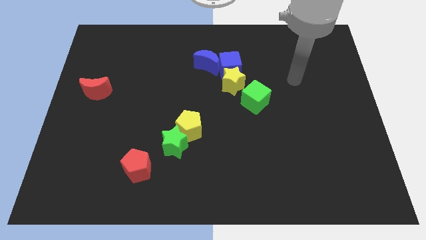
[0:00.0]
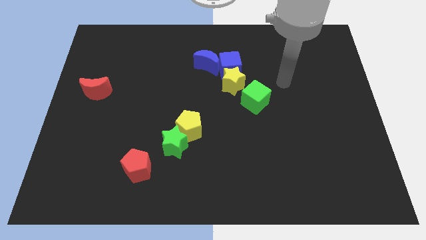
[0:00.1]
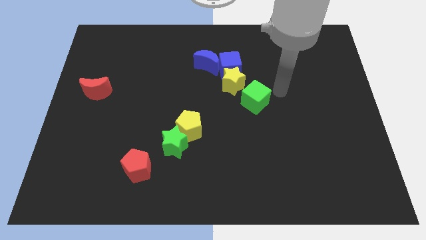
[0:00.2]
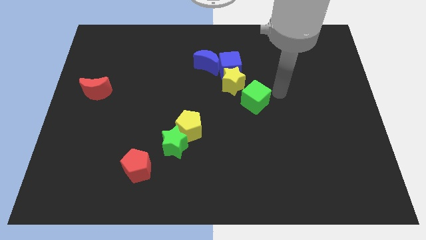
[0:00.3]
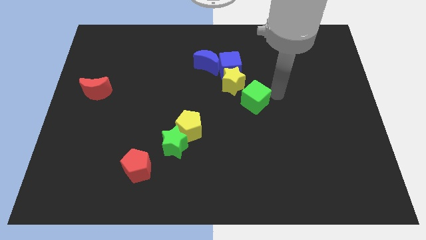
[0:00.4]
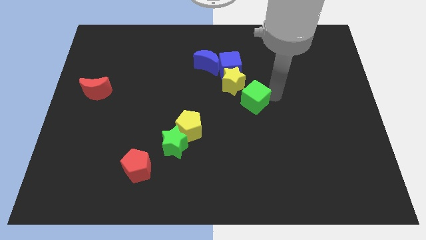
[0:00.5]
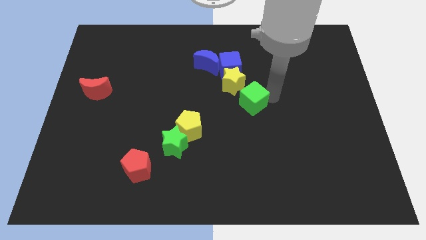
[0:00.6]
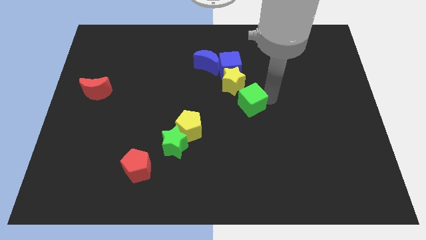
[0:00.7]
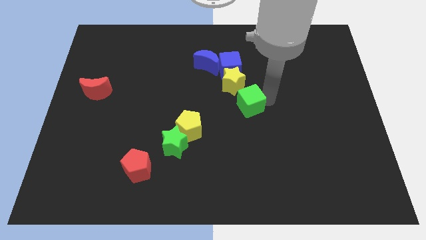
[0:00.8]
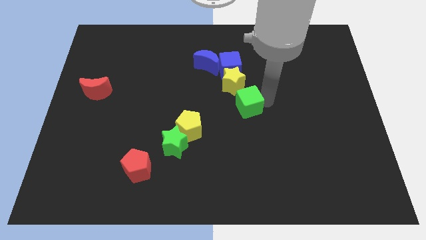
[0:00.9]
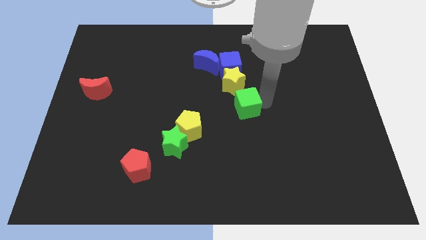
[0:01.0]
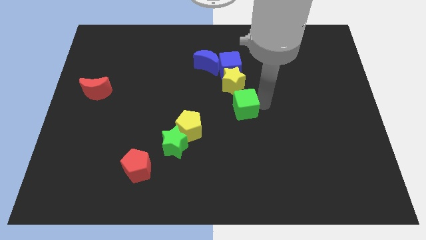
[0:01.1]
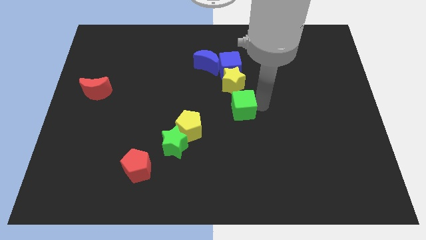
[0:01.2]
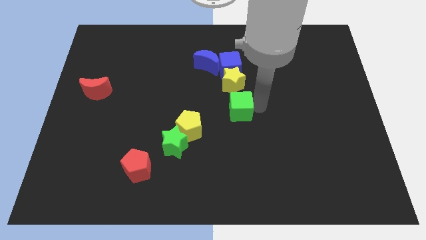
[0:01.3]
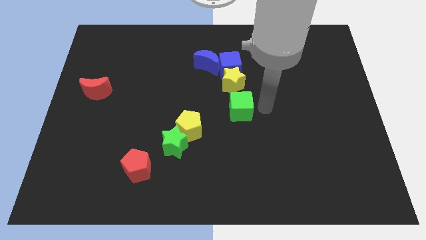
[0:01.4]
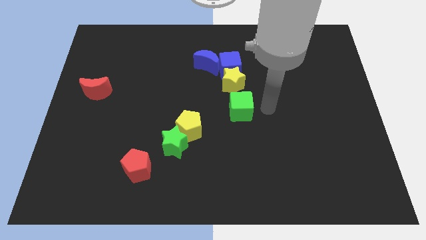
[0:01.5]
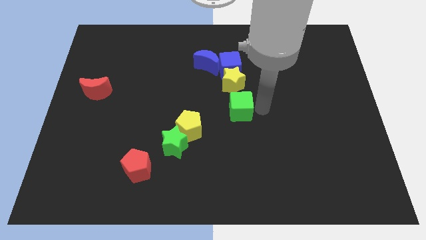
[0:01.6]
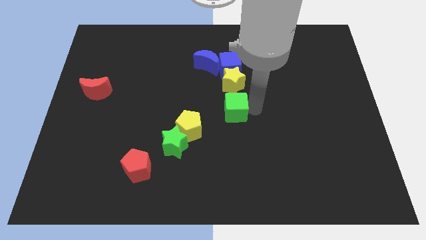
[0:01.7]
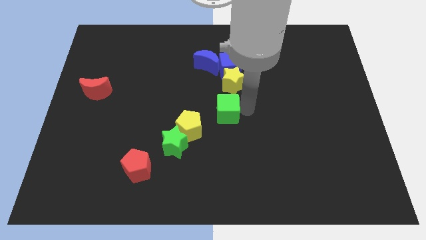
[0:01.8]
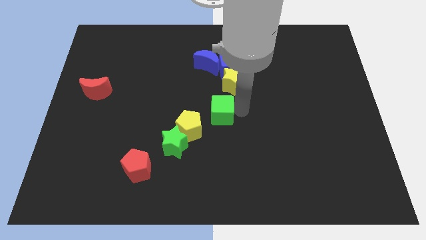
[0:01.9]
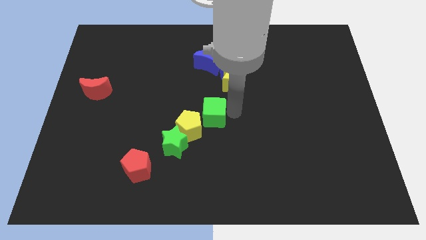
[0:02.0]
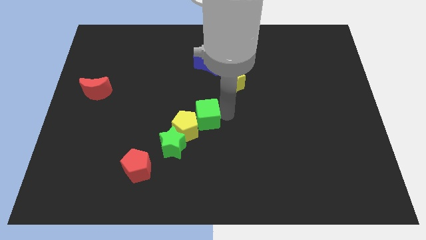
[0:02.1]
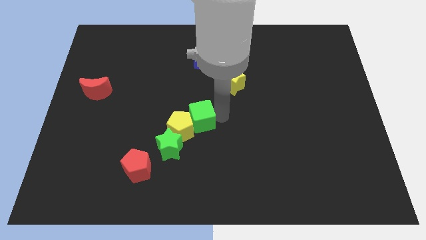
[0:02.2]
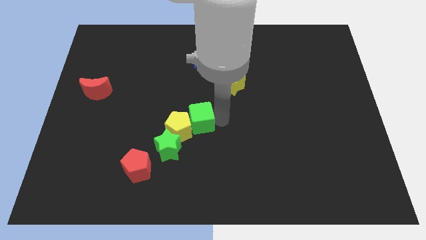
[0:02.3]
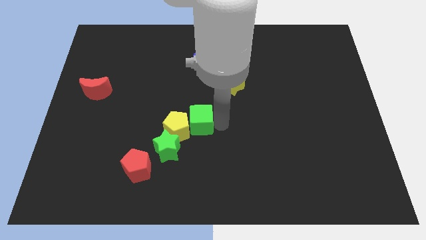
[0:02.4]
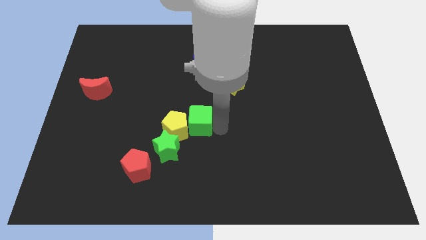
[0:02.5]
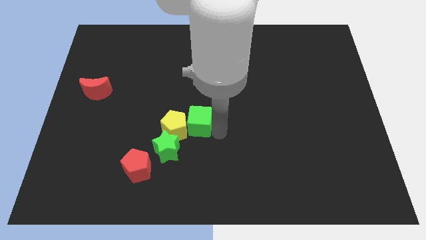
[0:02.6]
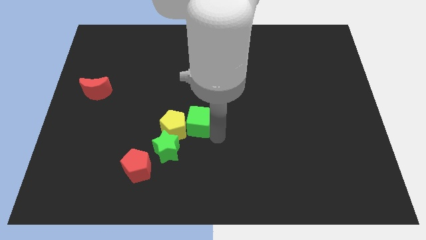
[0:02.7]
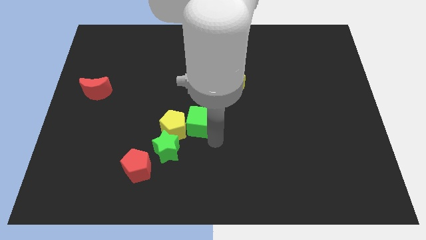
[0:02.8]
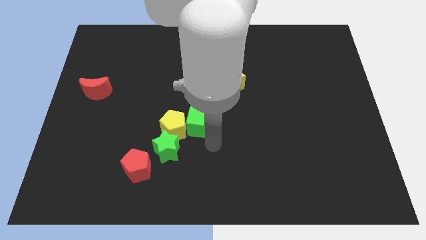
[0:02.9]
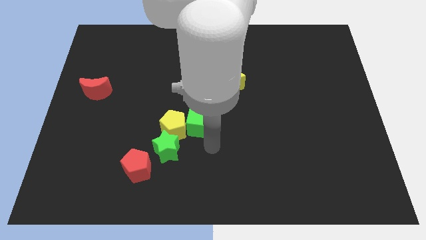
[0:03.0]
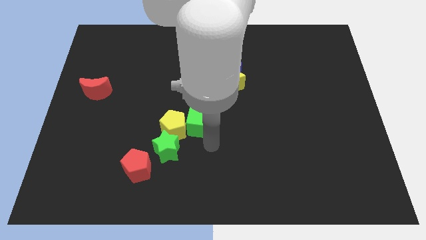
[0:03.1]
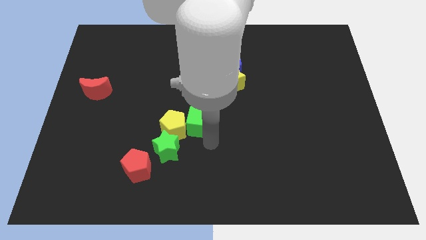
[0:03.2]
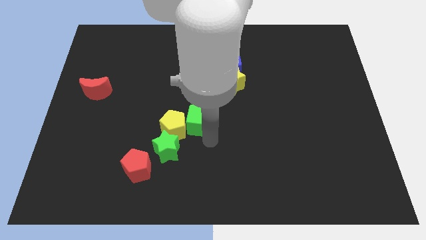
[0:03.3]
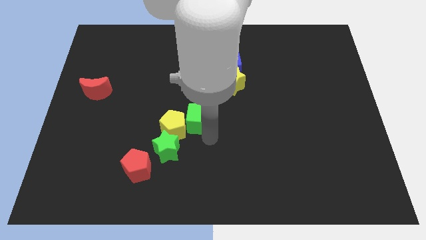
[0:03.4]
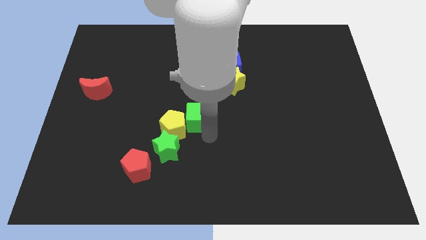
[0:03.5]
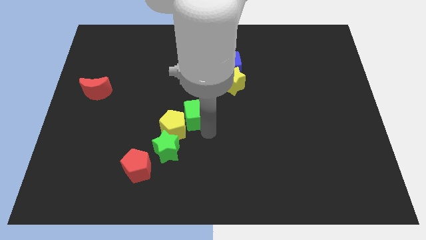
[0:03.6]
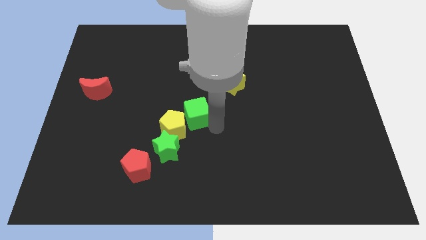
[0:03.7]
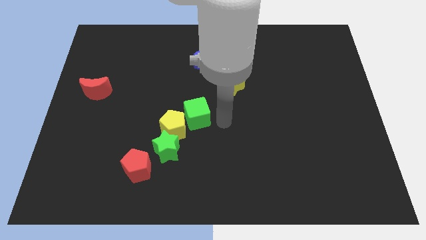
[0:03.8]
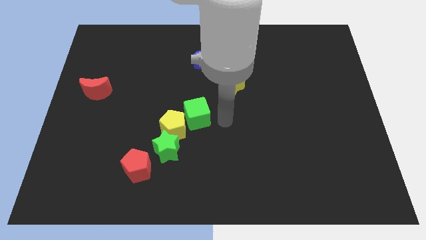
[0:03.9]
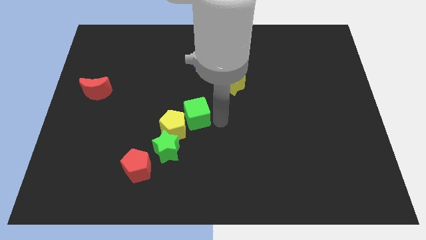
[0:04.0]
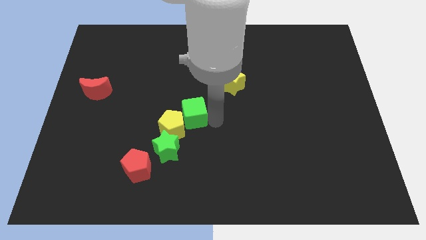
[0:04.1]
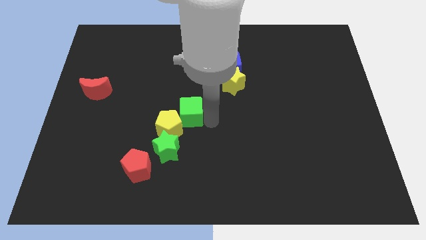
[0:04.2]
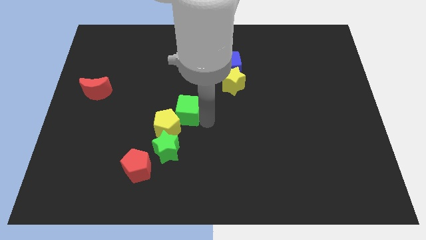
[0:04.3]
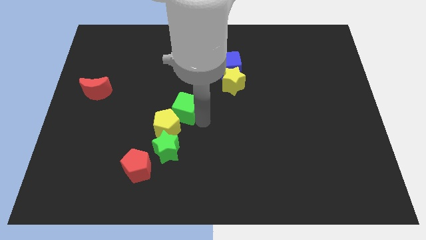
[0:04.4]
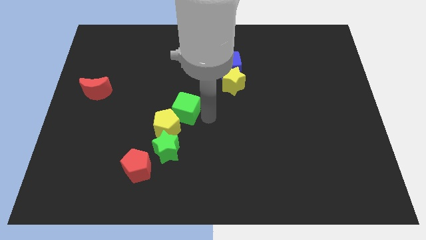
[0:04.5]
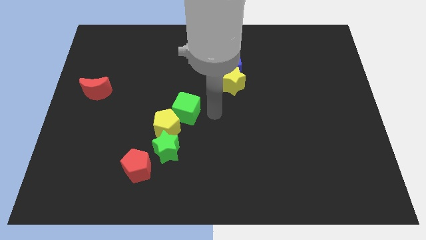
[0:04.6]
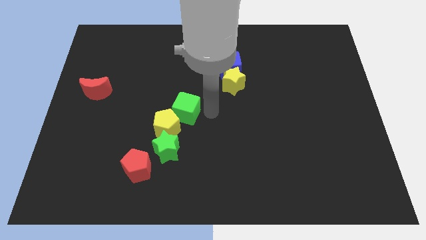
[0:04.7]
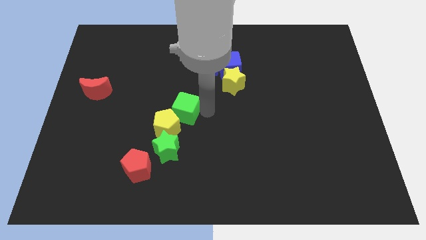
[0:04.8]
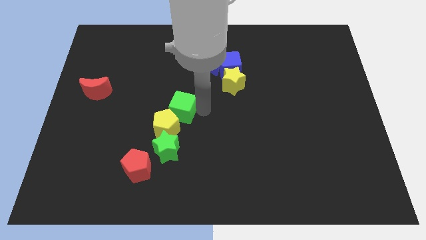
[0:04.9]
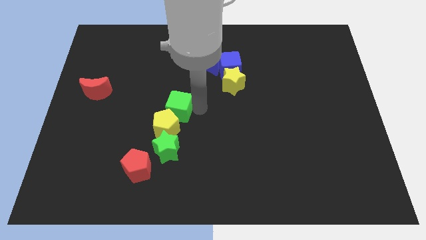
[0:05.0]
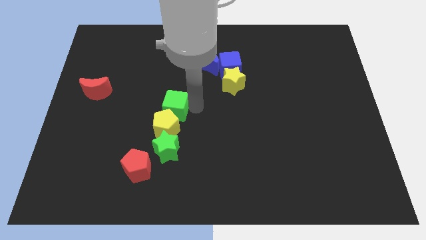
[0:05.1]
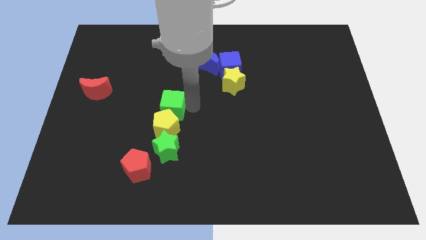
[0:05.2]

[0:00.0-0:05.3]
put the green cube to the top left of the yellow pentagon

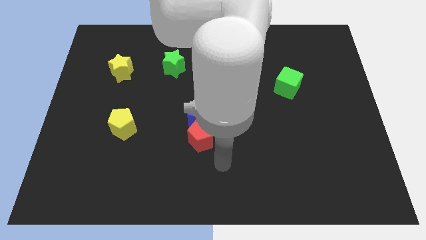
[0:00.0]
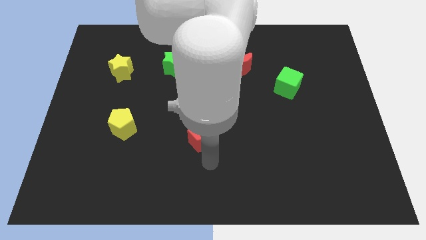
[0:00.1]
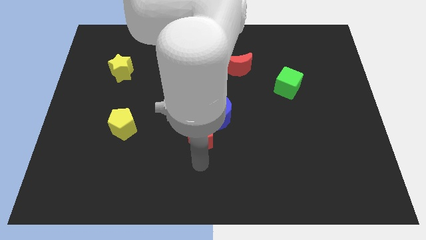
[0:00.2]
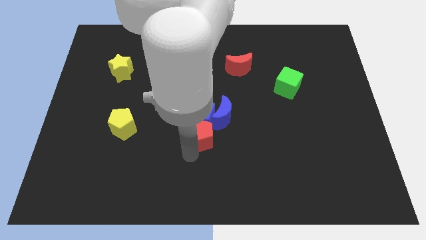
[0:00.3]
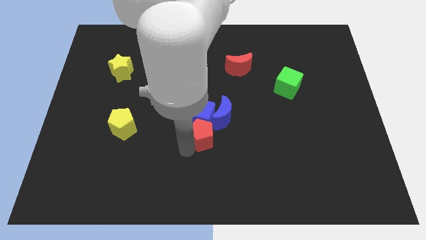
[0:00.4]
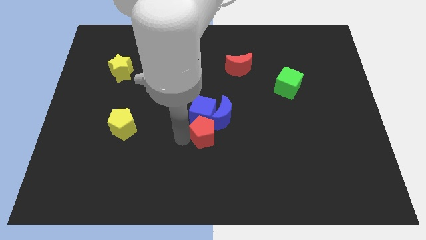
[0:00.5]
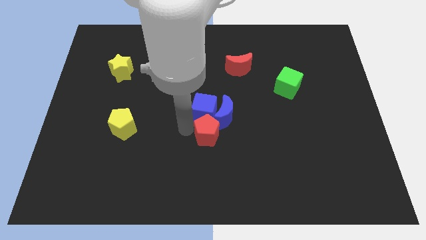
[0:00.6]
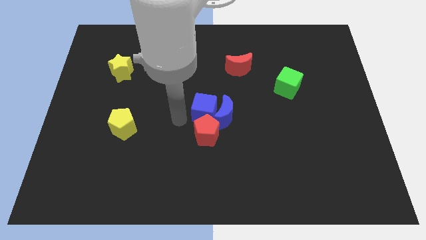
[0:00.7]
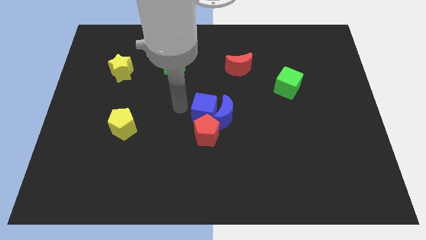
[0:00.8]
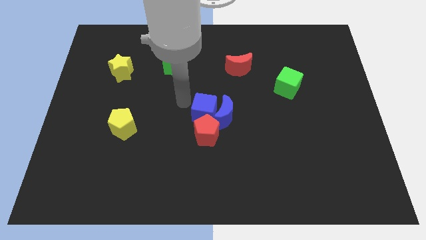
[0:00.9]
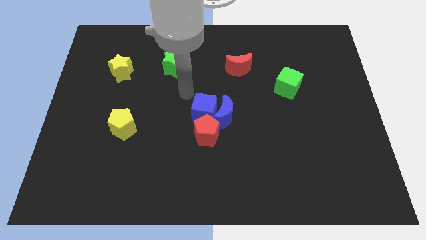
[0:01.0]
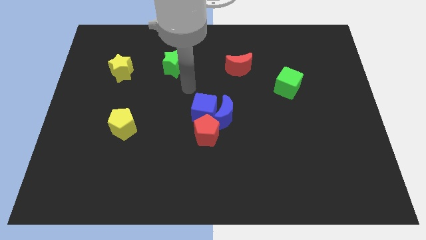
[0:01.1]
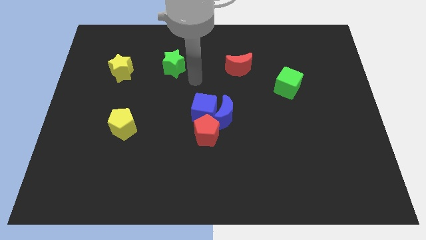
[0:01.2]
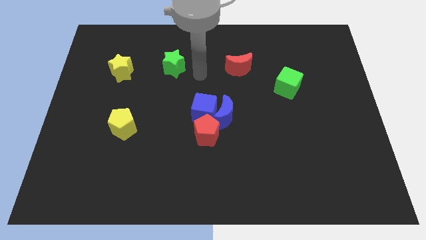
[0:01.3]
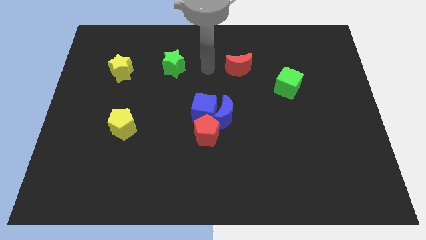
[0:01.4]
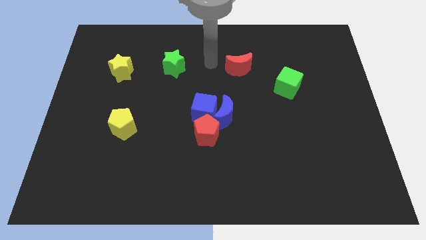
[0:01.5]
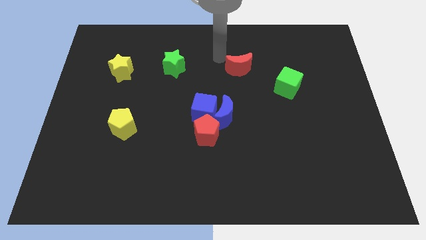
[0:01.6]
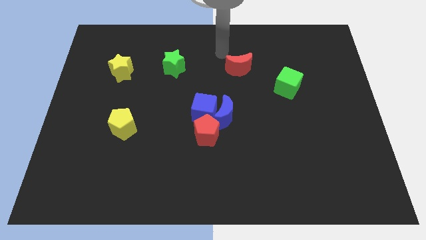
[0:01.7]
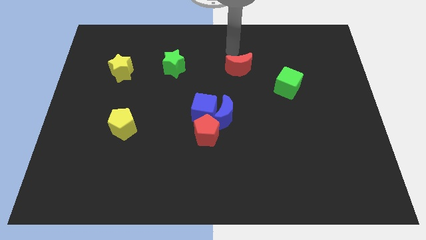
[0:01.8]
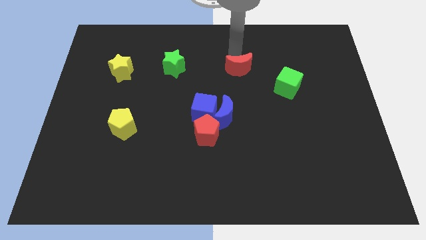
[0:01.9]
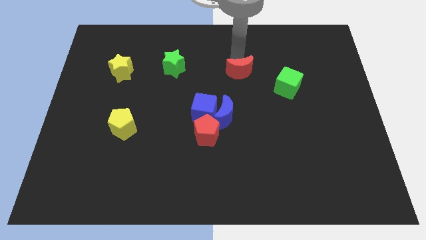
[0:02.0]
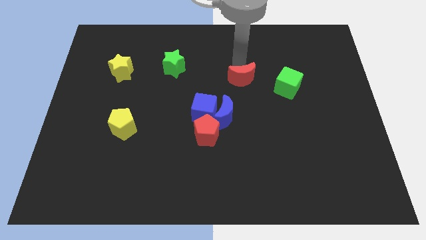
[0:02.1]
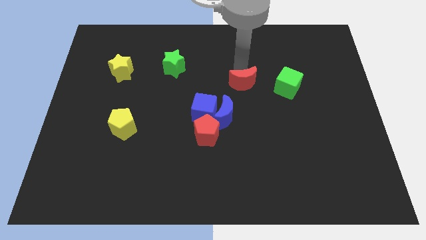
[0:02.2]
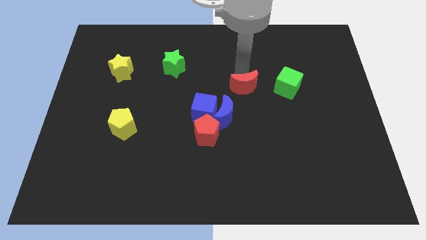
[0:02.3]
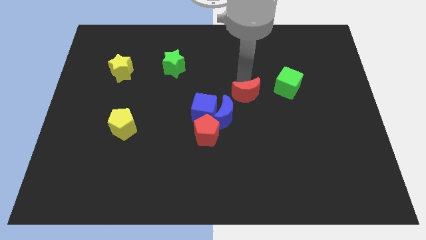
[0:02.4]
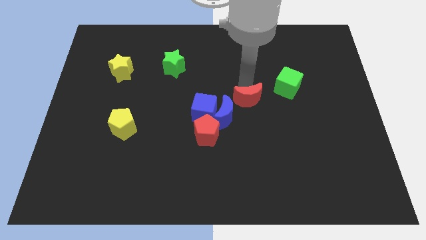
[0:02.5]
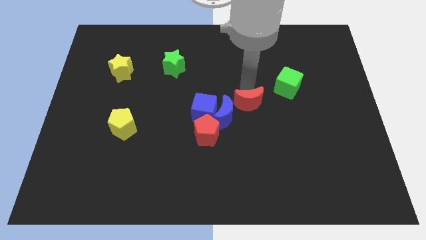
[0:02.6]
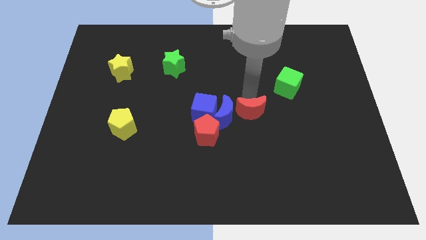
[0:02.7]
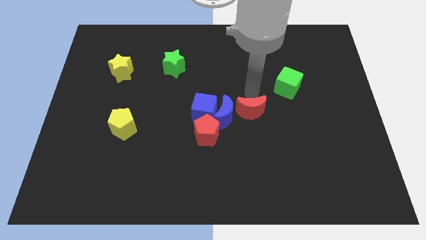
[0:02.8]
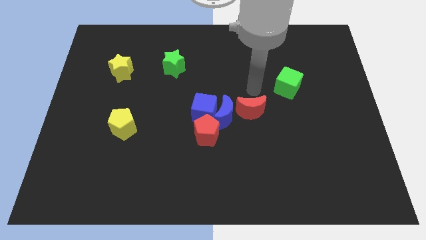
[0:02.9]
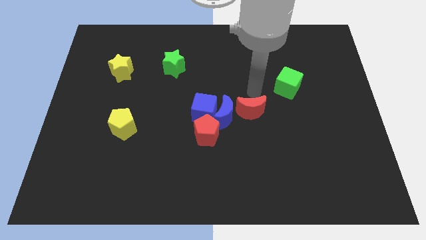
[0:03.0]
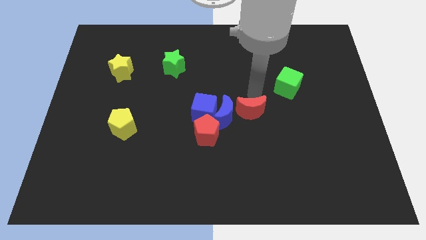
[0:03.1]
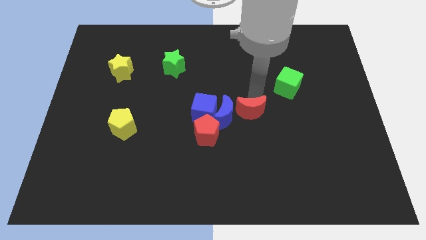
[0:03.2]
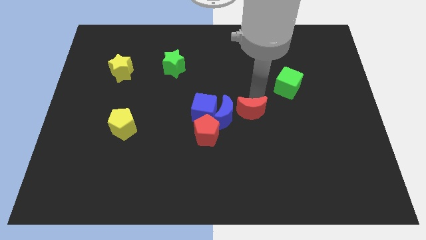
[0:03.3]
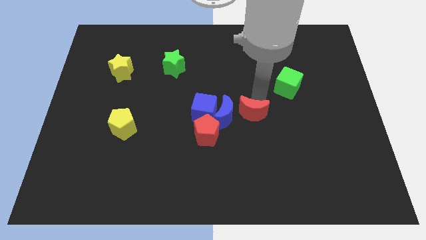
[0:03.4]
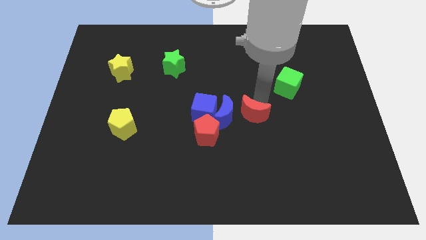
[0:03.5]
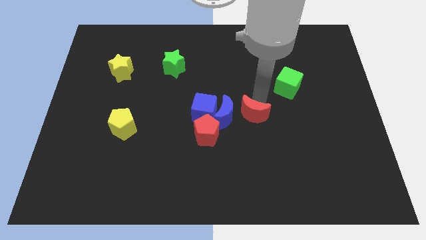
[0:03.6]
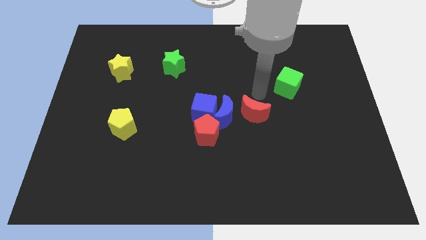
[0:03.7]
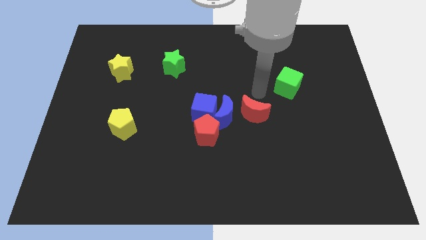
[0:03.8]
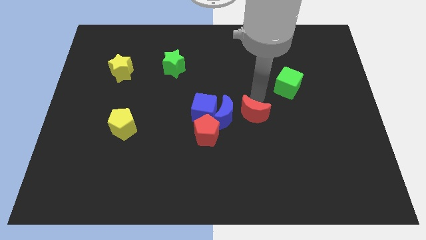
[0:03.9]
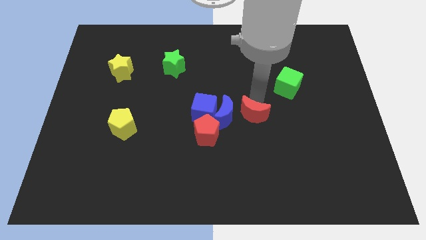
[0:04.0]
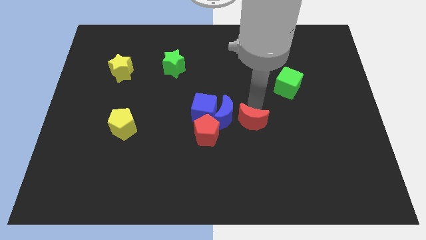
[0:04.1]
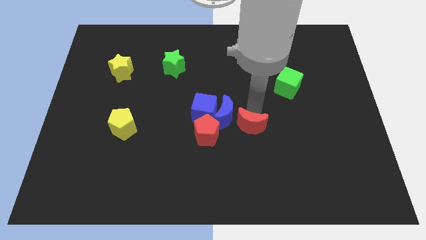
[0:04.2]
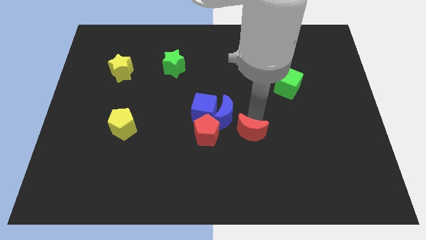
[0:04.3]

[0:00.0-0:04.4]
slide the red moon diagonally down and to the right of the blue cube
